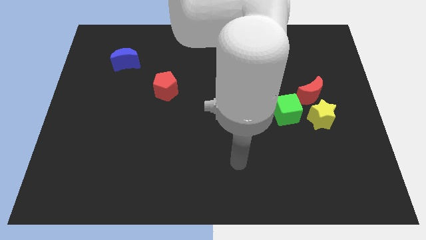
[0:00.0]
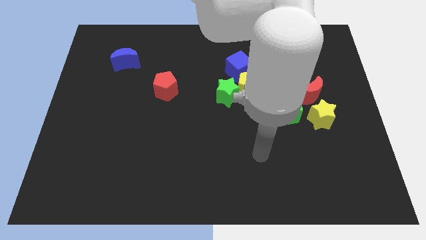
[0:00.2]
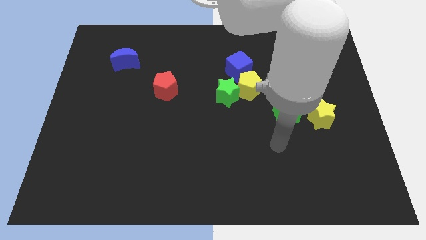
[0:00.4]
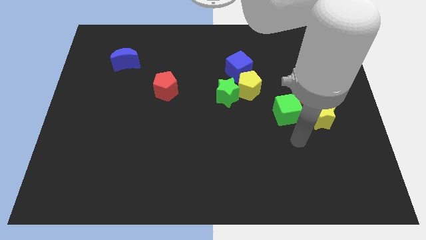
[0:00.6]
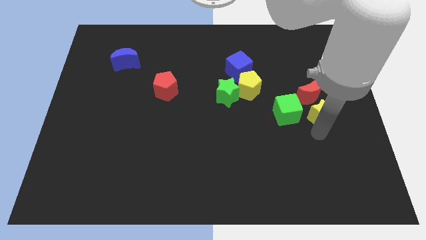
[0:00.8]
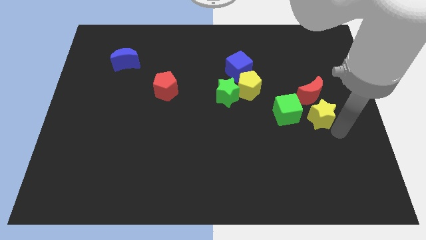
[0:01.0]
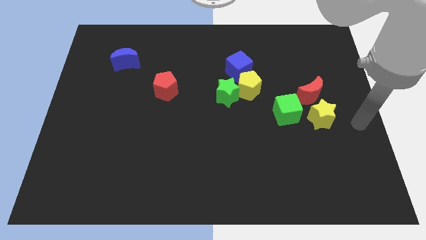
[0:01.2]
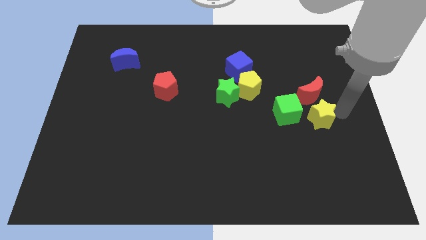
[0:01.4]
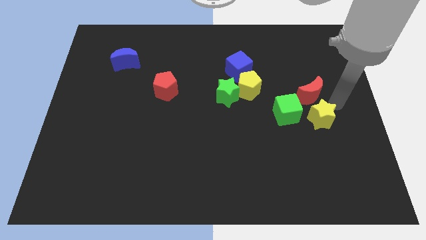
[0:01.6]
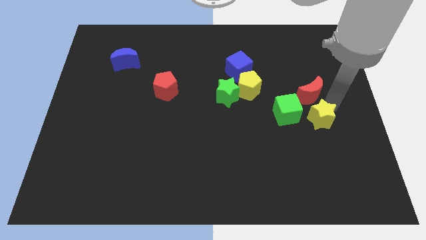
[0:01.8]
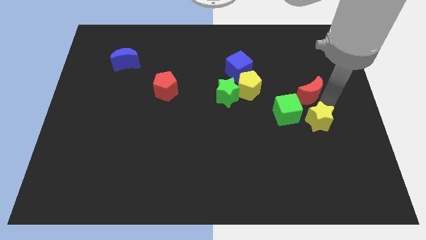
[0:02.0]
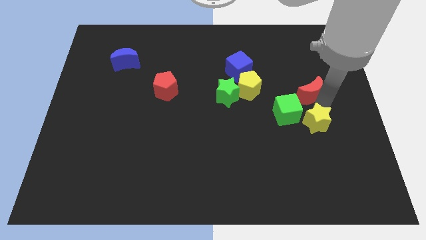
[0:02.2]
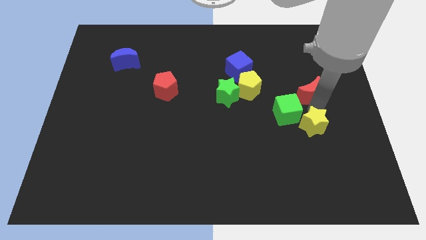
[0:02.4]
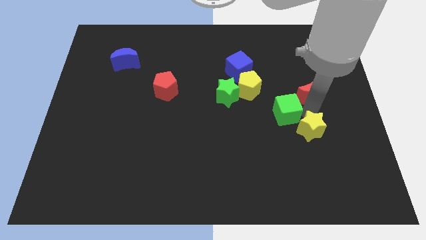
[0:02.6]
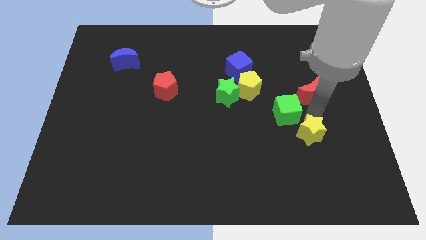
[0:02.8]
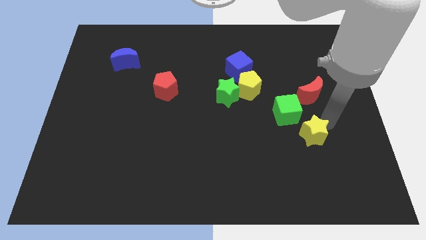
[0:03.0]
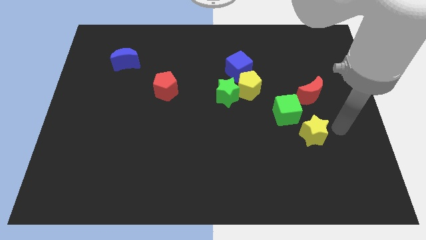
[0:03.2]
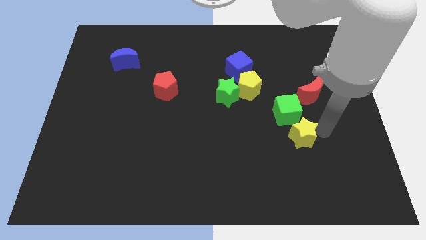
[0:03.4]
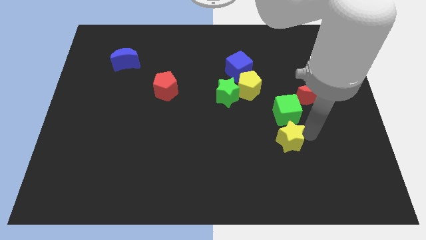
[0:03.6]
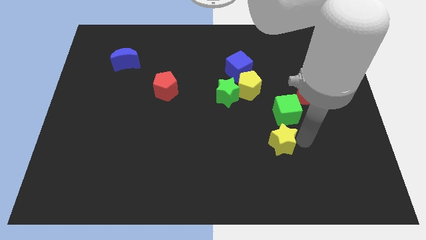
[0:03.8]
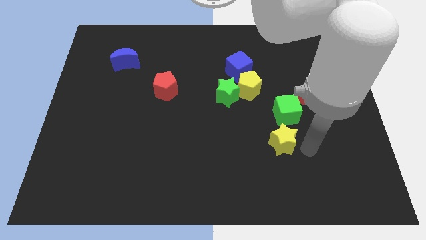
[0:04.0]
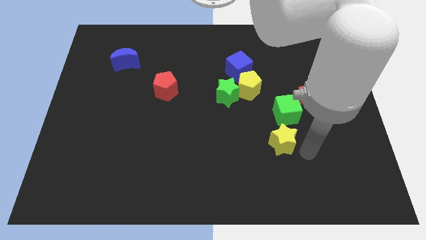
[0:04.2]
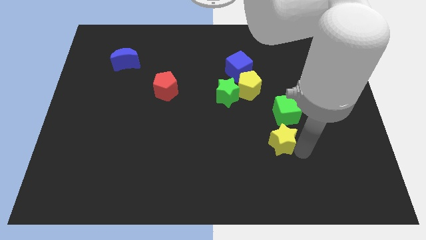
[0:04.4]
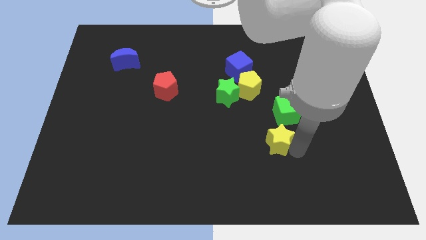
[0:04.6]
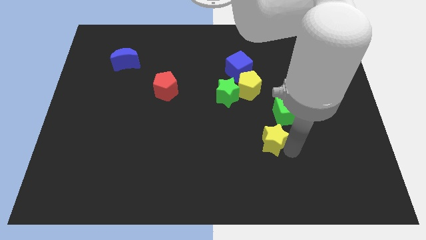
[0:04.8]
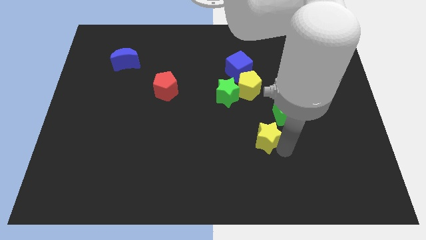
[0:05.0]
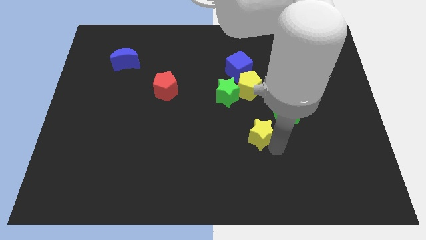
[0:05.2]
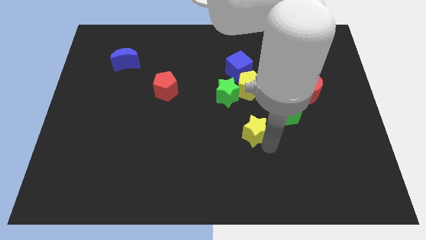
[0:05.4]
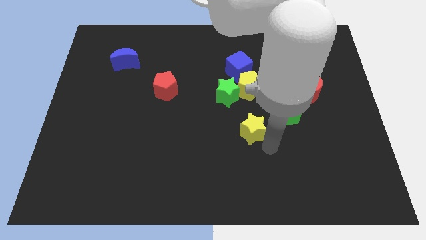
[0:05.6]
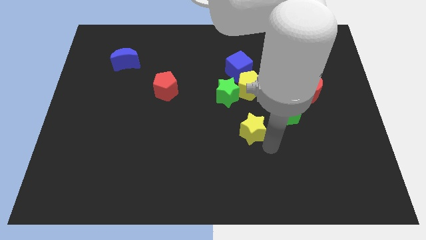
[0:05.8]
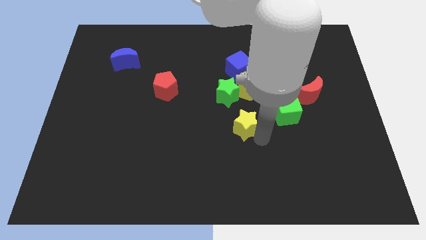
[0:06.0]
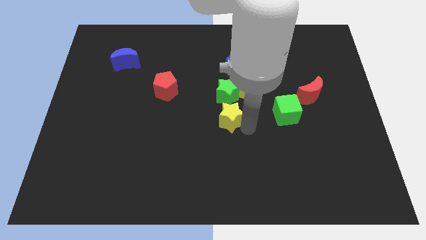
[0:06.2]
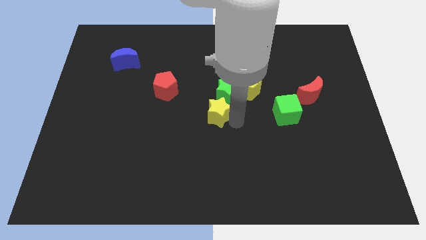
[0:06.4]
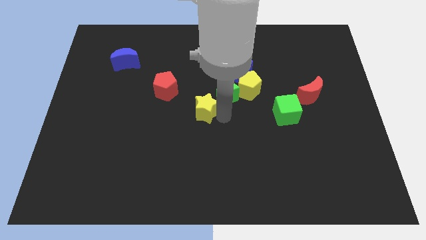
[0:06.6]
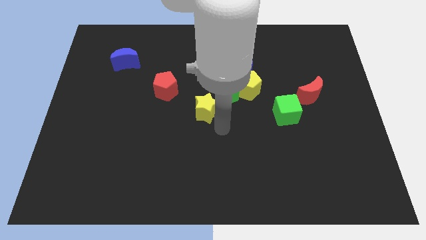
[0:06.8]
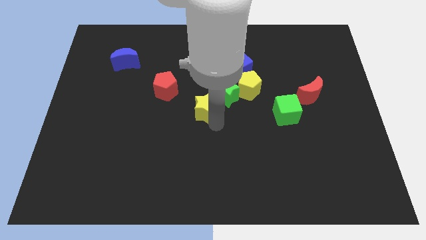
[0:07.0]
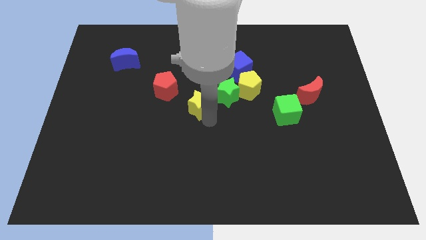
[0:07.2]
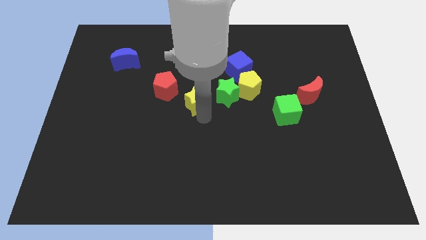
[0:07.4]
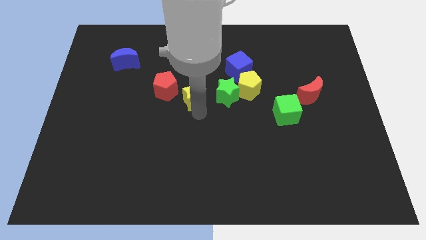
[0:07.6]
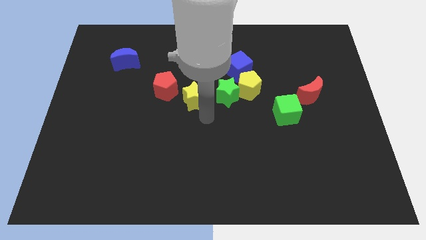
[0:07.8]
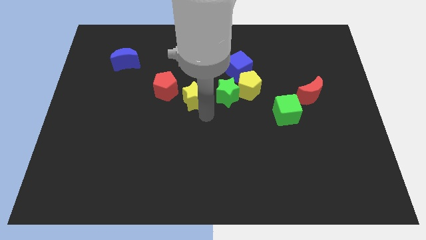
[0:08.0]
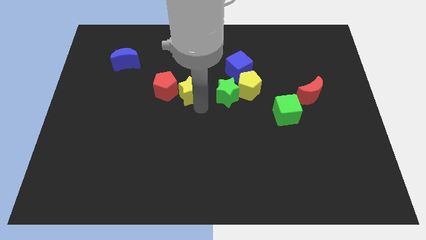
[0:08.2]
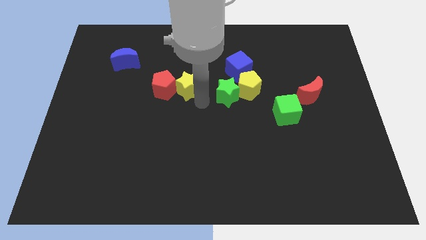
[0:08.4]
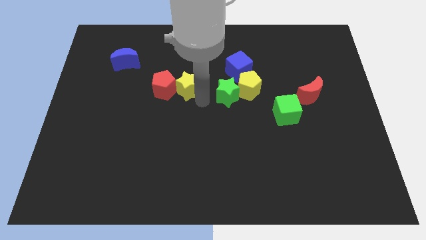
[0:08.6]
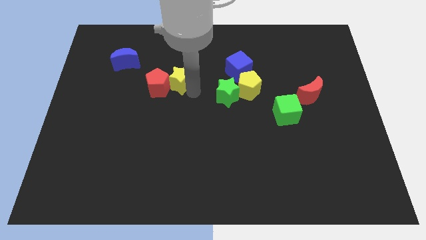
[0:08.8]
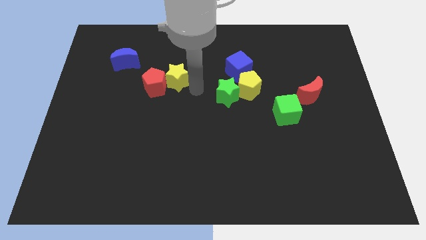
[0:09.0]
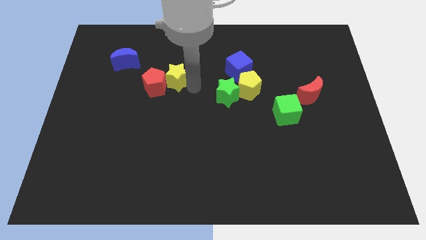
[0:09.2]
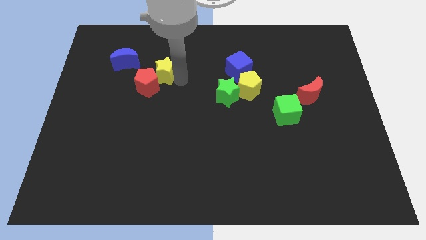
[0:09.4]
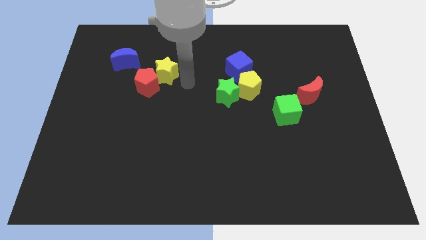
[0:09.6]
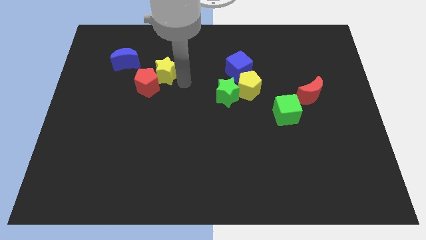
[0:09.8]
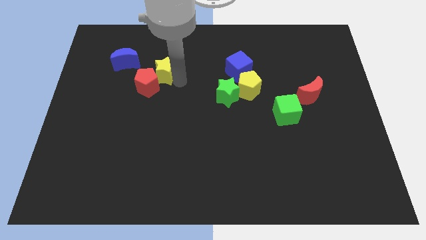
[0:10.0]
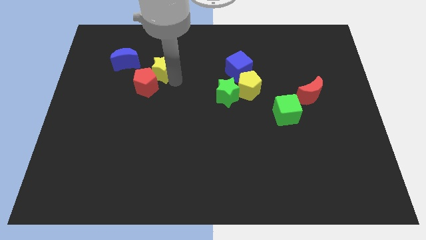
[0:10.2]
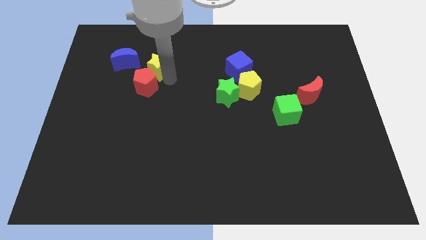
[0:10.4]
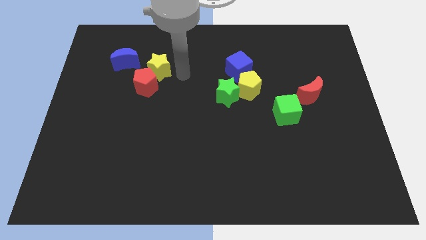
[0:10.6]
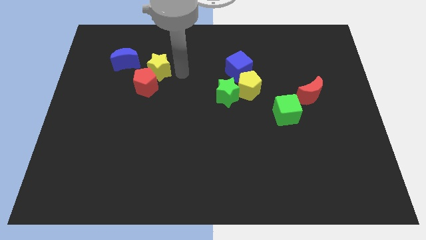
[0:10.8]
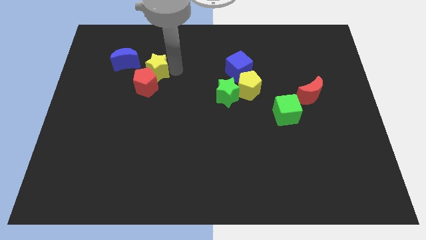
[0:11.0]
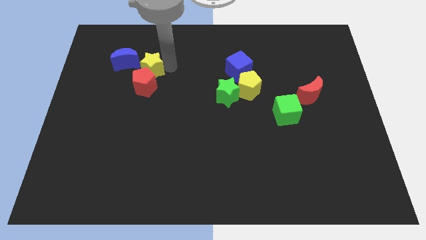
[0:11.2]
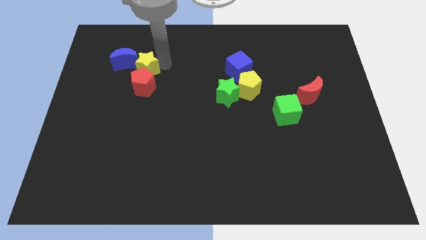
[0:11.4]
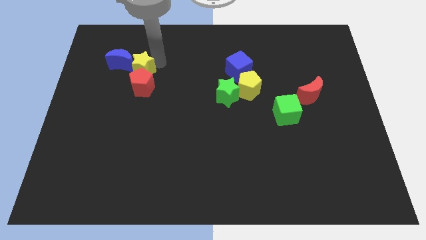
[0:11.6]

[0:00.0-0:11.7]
move the yellow star towards the blue moon

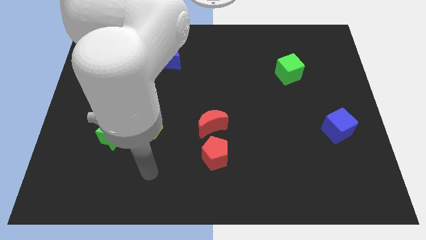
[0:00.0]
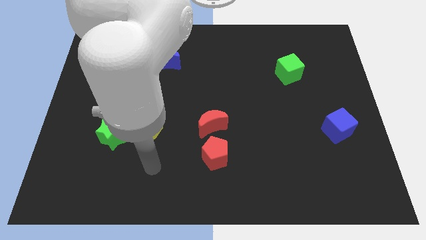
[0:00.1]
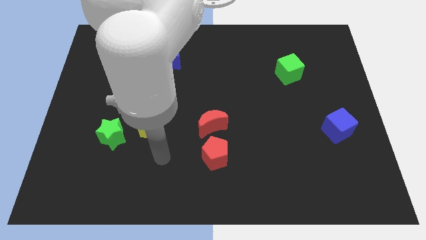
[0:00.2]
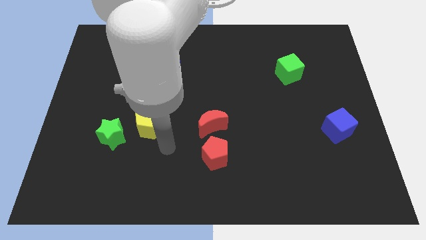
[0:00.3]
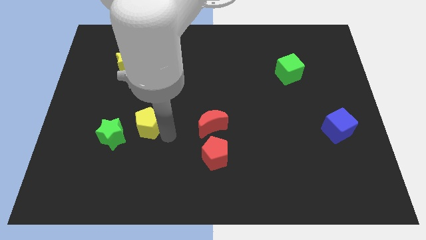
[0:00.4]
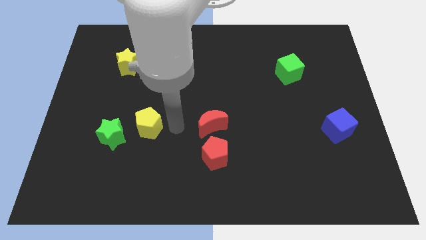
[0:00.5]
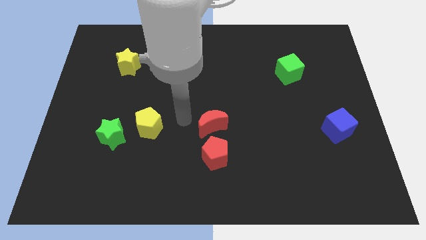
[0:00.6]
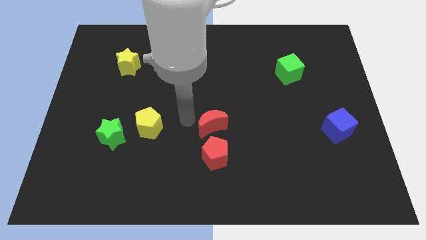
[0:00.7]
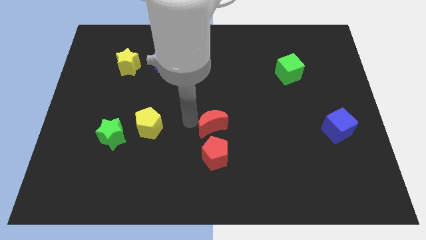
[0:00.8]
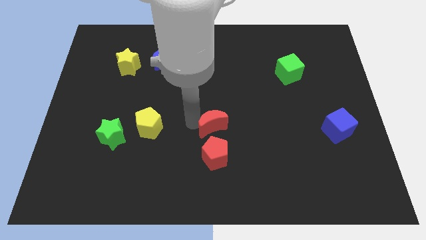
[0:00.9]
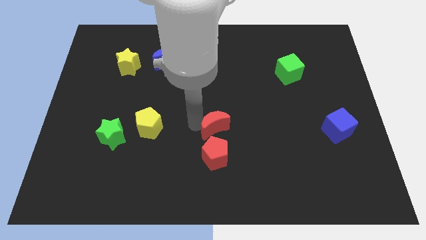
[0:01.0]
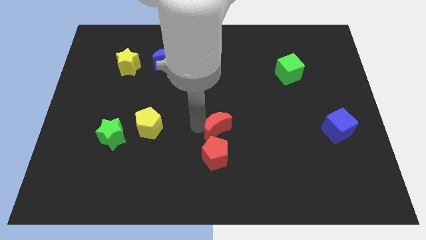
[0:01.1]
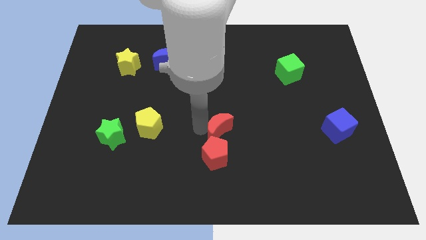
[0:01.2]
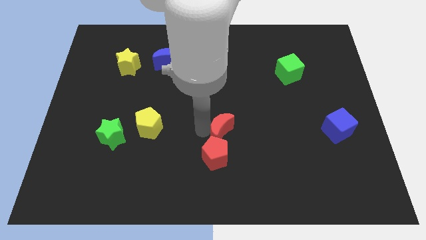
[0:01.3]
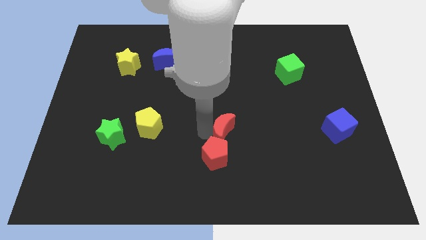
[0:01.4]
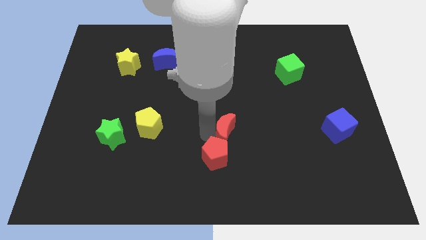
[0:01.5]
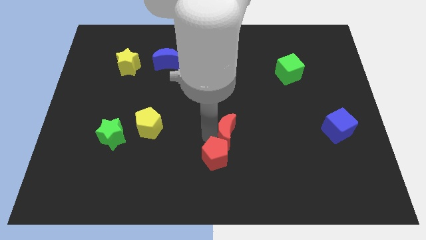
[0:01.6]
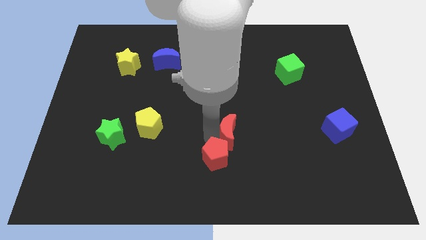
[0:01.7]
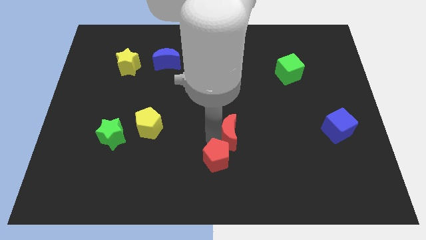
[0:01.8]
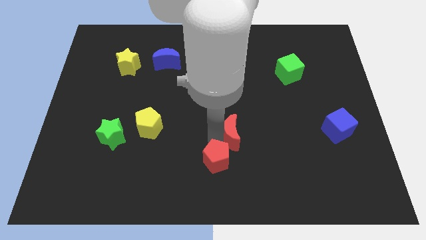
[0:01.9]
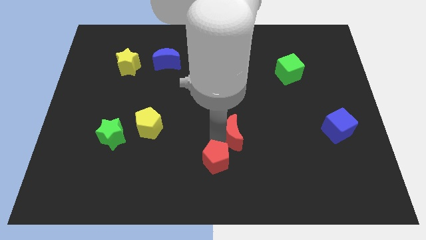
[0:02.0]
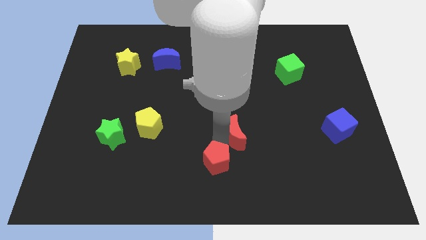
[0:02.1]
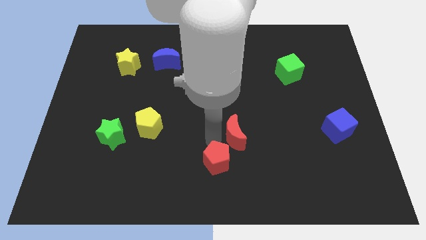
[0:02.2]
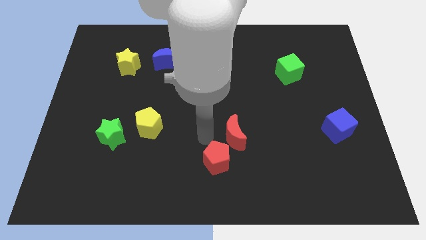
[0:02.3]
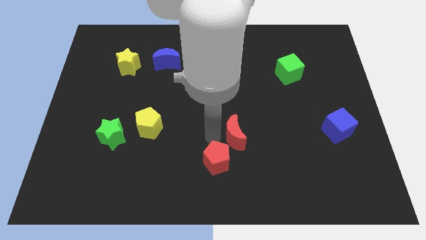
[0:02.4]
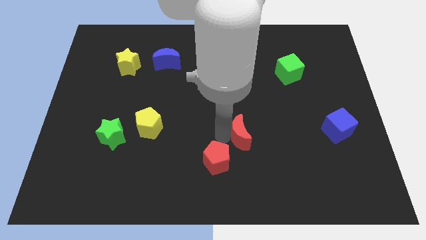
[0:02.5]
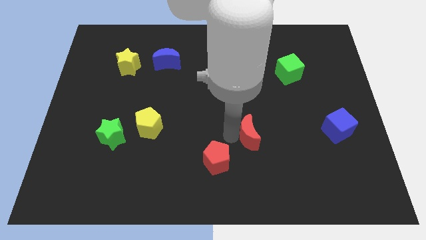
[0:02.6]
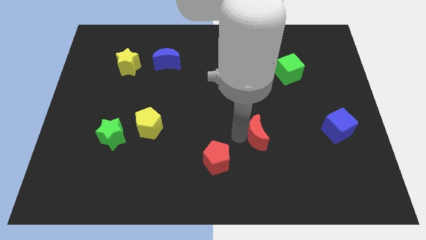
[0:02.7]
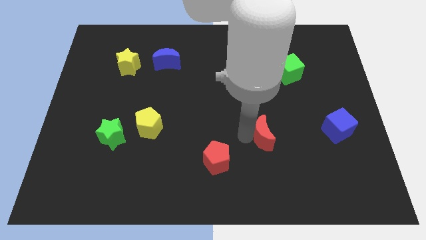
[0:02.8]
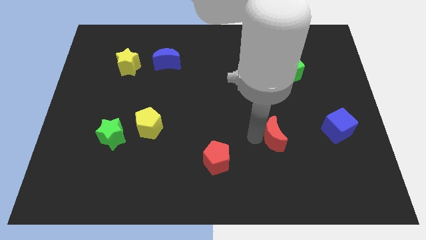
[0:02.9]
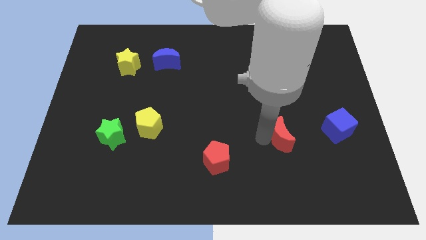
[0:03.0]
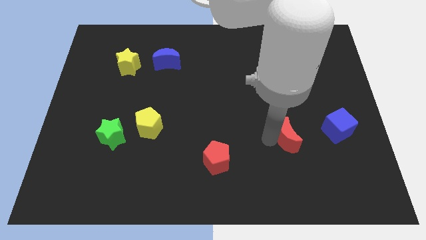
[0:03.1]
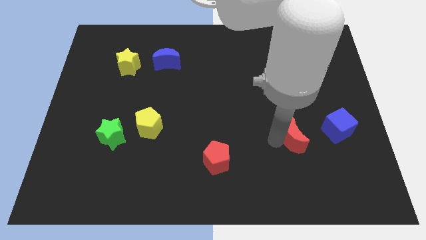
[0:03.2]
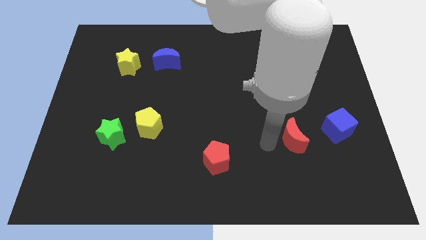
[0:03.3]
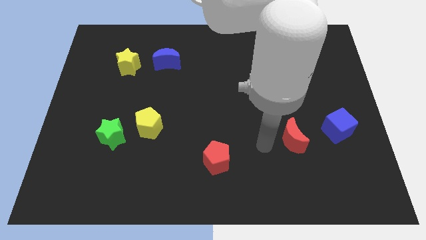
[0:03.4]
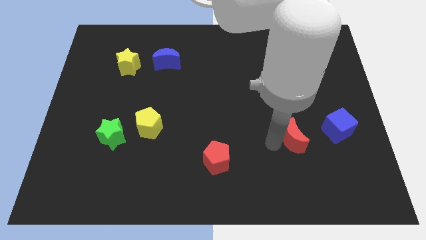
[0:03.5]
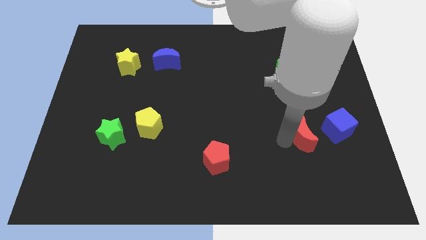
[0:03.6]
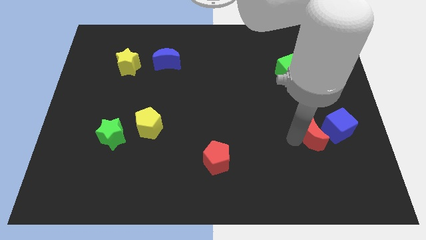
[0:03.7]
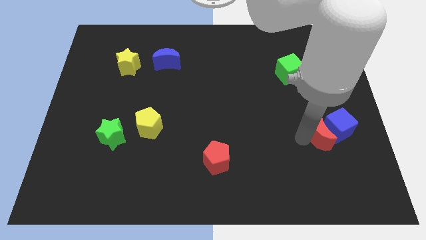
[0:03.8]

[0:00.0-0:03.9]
put the red moon close to the blue cube
